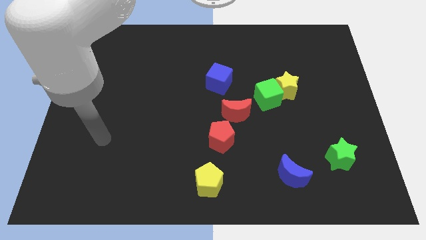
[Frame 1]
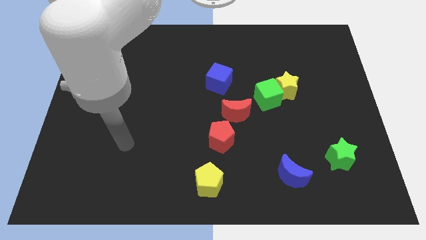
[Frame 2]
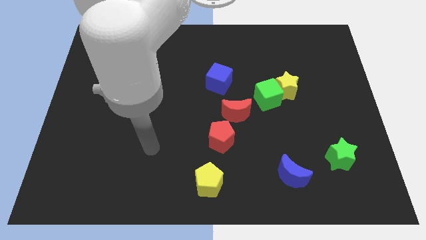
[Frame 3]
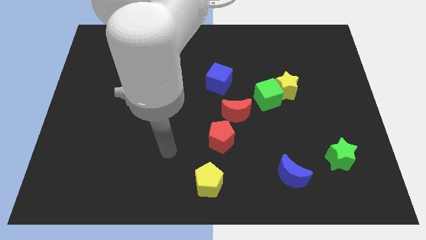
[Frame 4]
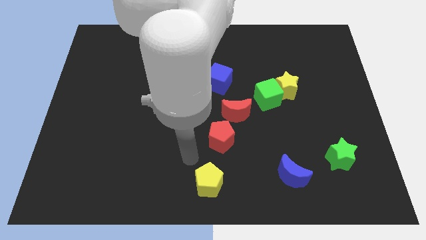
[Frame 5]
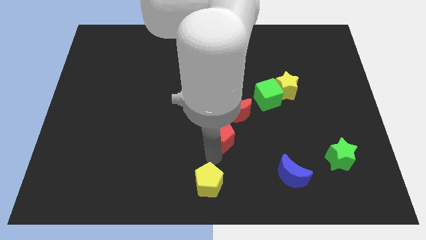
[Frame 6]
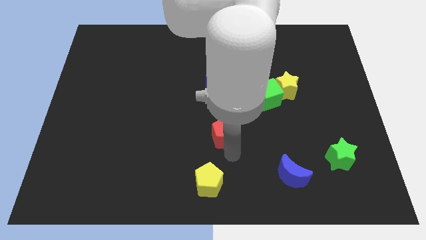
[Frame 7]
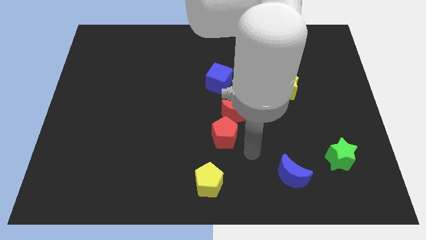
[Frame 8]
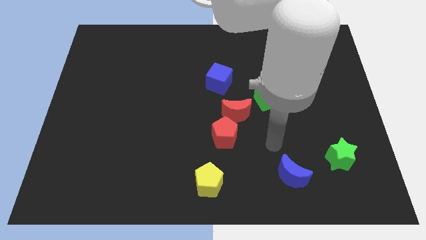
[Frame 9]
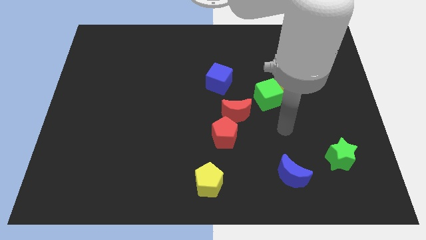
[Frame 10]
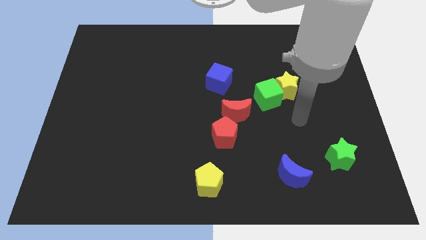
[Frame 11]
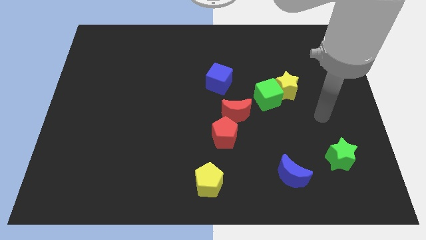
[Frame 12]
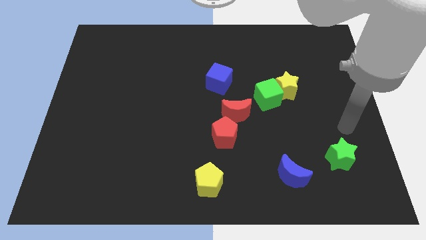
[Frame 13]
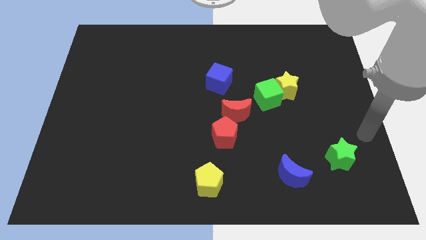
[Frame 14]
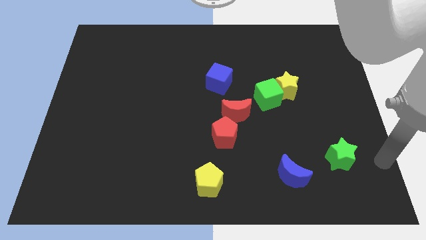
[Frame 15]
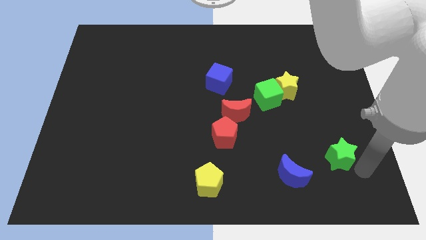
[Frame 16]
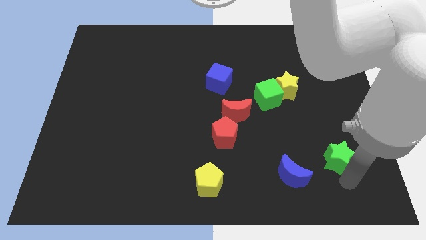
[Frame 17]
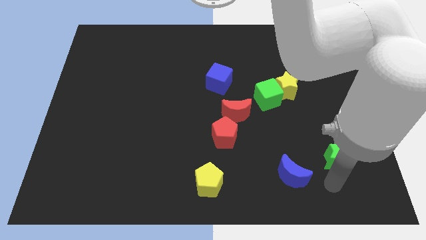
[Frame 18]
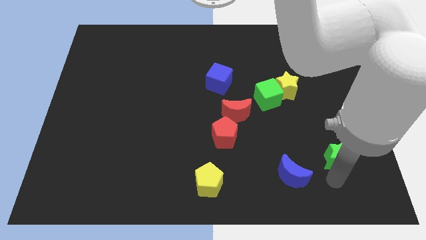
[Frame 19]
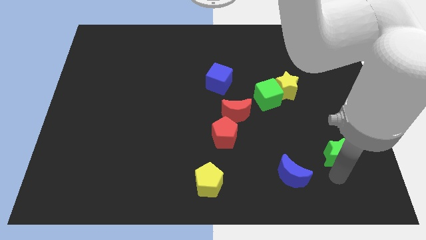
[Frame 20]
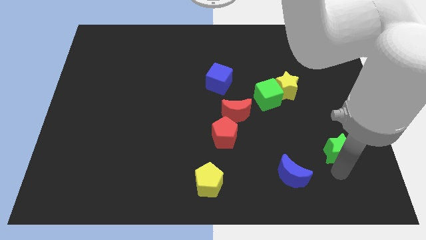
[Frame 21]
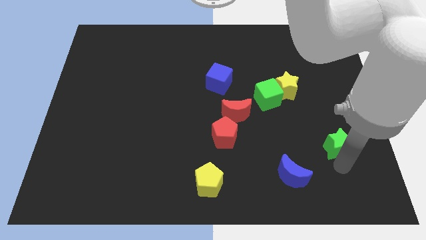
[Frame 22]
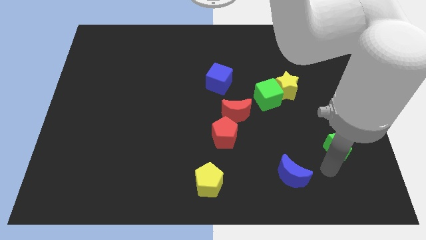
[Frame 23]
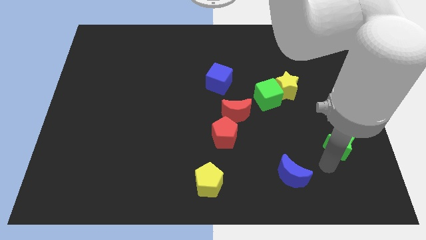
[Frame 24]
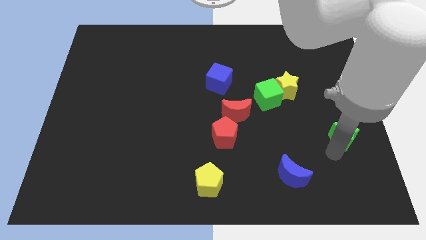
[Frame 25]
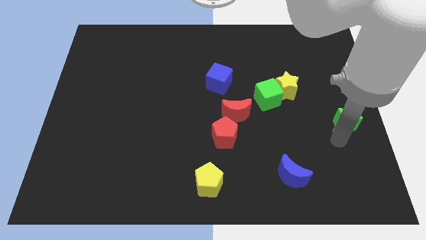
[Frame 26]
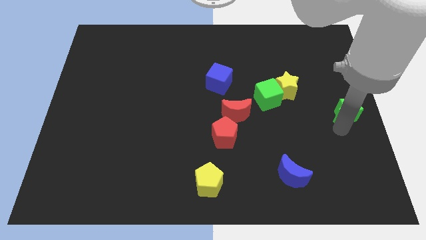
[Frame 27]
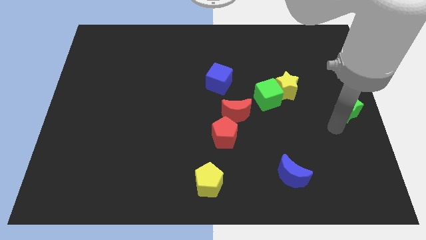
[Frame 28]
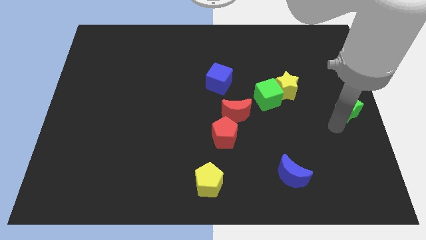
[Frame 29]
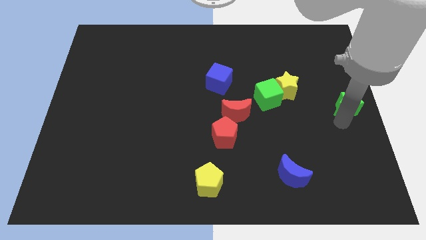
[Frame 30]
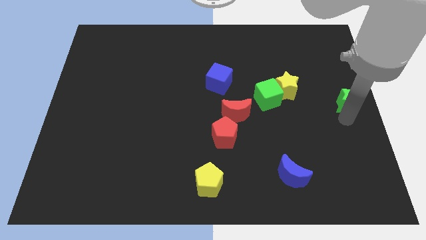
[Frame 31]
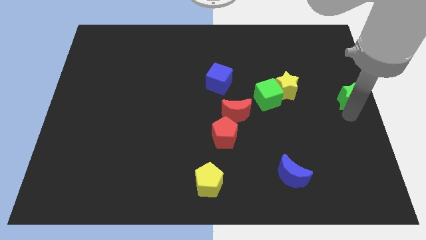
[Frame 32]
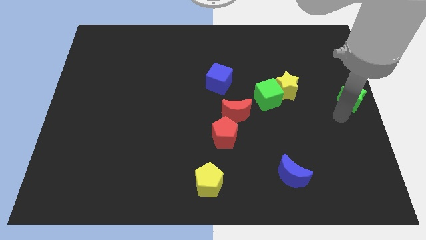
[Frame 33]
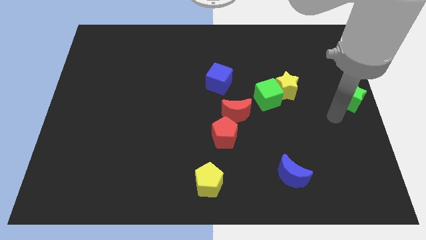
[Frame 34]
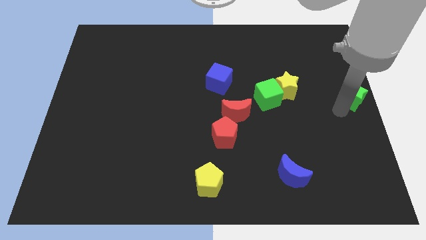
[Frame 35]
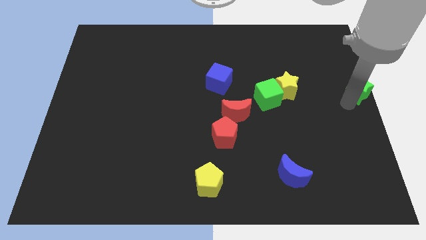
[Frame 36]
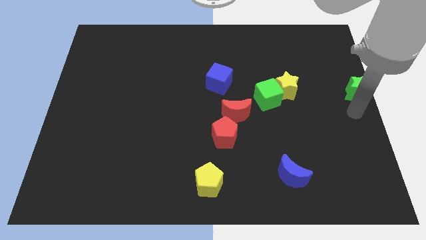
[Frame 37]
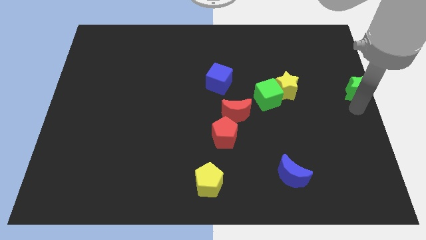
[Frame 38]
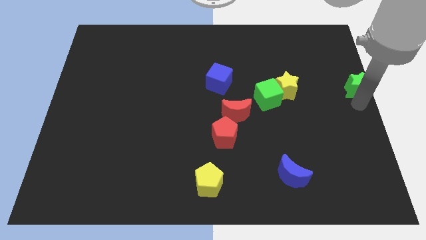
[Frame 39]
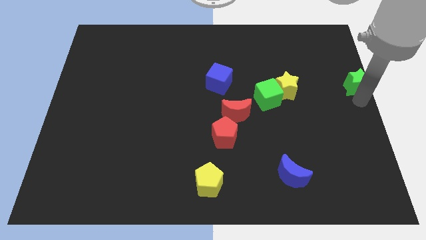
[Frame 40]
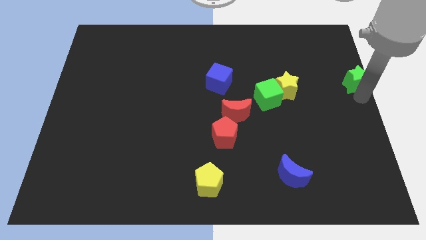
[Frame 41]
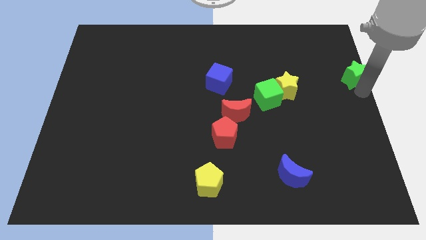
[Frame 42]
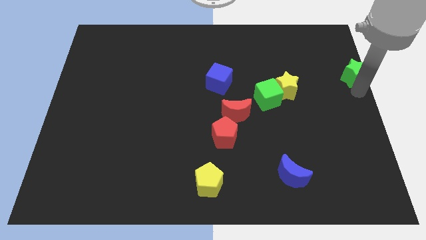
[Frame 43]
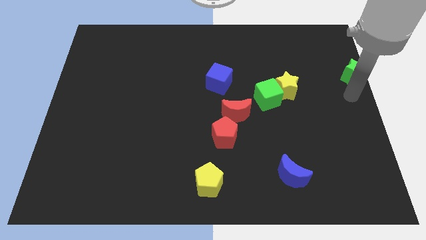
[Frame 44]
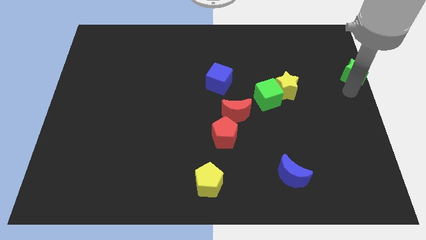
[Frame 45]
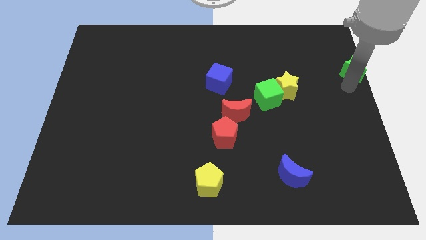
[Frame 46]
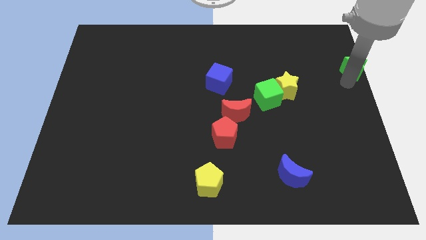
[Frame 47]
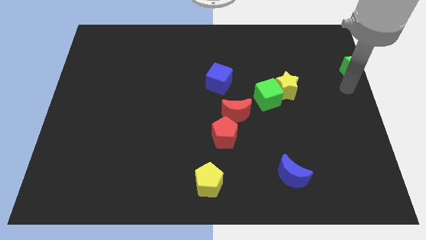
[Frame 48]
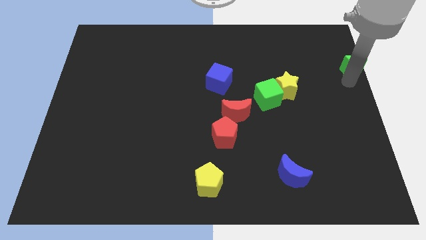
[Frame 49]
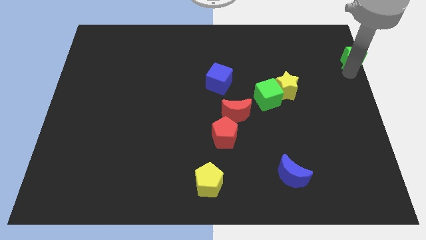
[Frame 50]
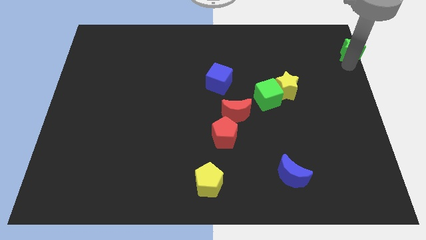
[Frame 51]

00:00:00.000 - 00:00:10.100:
put the green star to the top right
